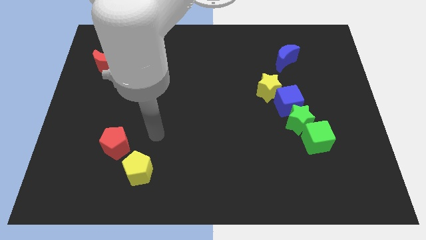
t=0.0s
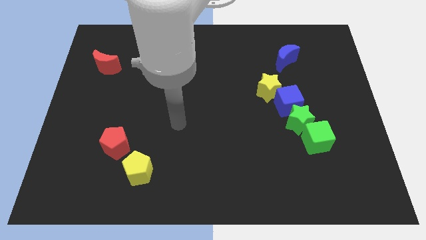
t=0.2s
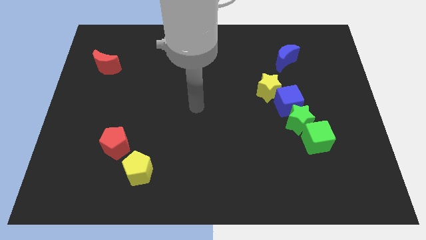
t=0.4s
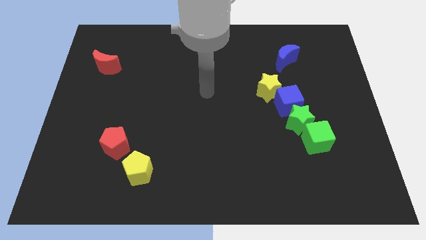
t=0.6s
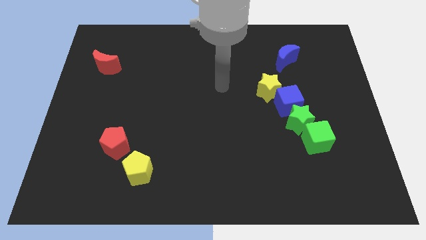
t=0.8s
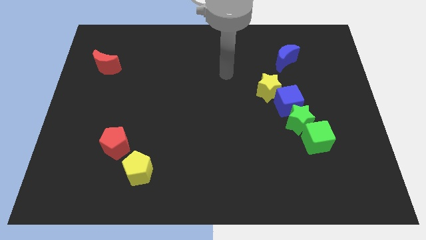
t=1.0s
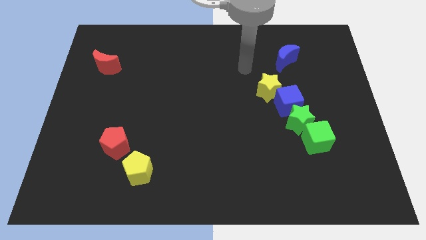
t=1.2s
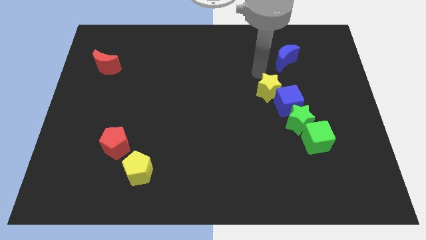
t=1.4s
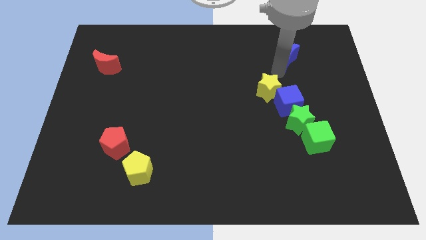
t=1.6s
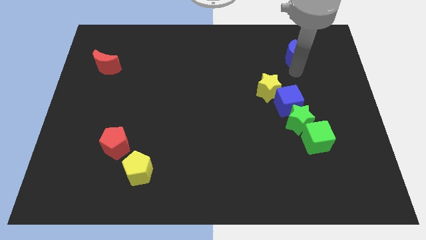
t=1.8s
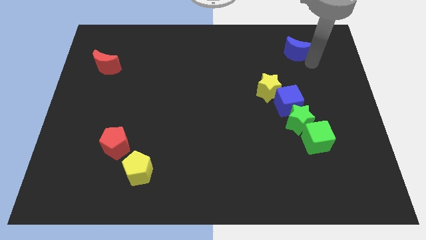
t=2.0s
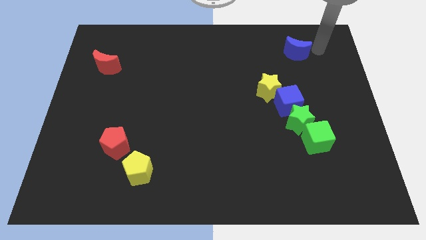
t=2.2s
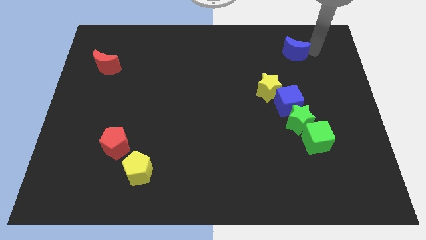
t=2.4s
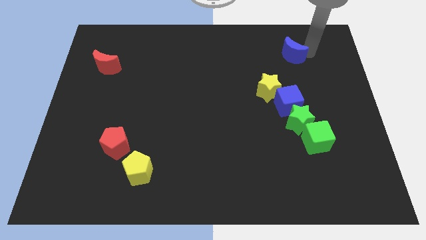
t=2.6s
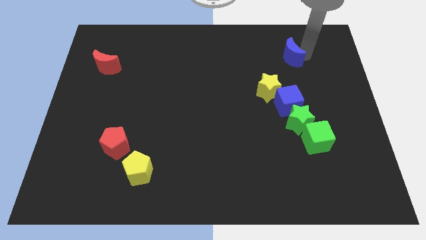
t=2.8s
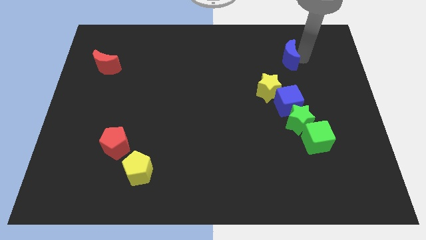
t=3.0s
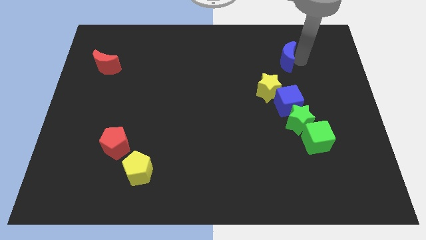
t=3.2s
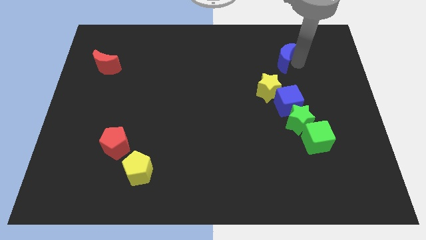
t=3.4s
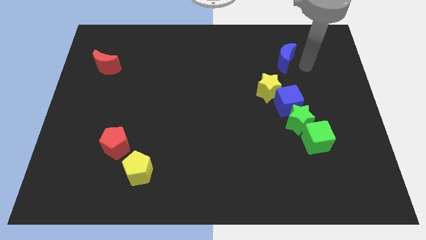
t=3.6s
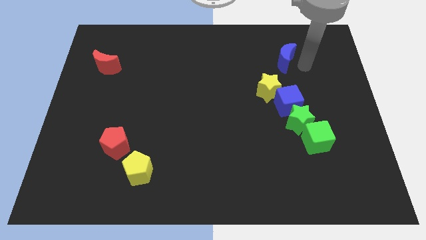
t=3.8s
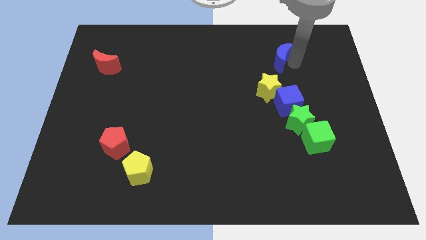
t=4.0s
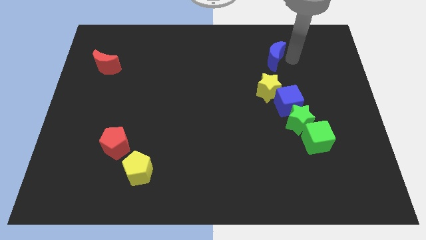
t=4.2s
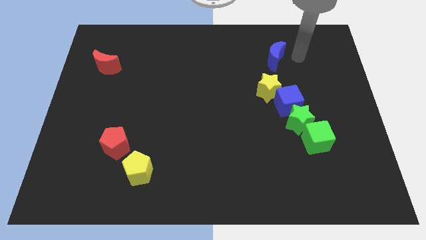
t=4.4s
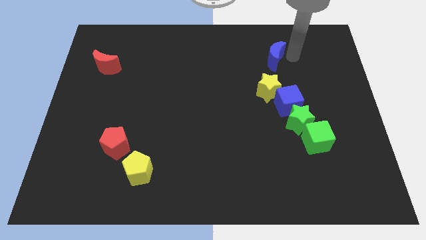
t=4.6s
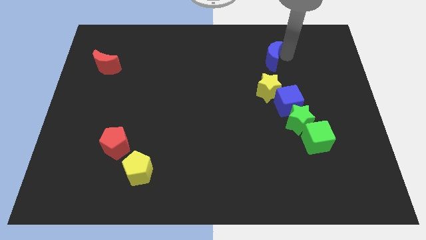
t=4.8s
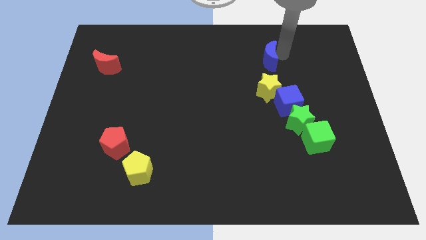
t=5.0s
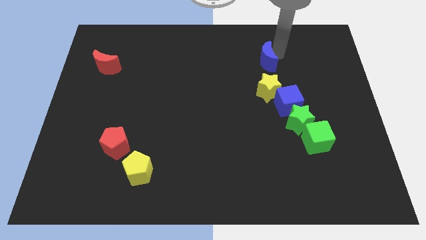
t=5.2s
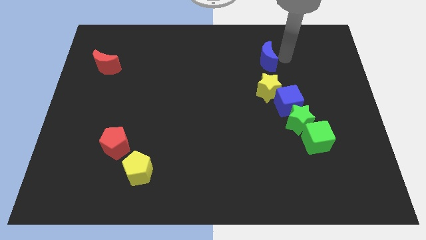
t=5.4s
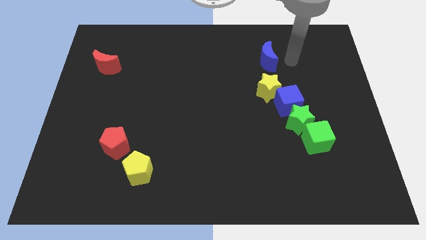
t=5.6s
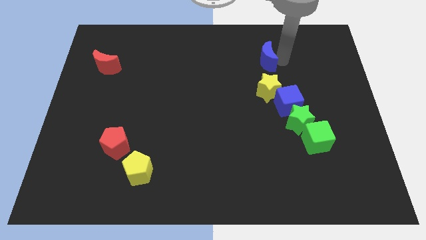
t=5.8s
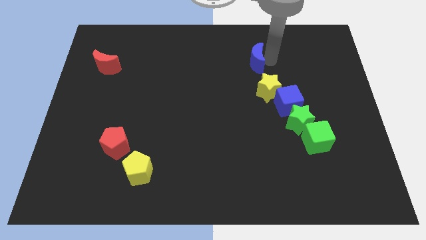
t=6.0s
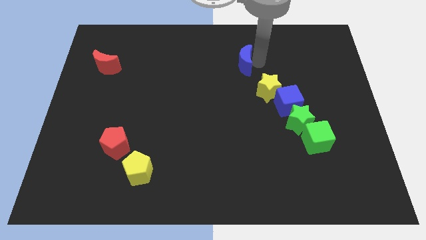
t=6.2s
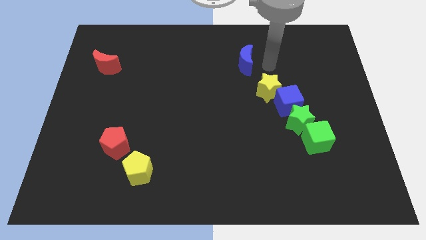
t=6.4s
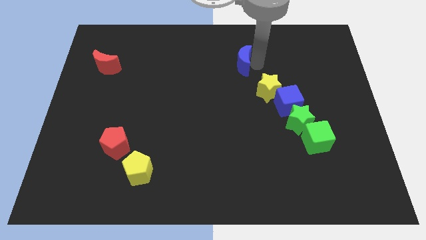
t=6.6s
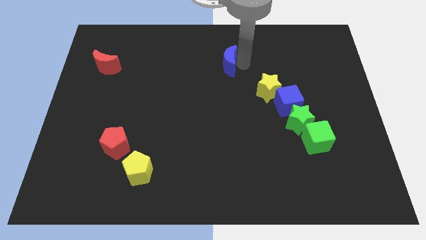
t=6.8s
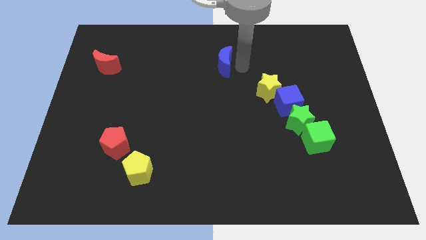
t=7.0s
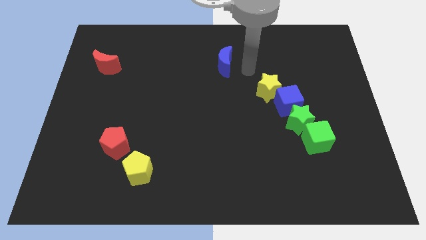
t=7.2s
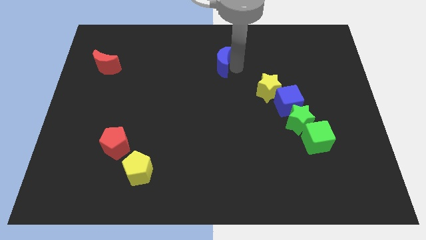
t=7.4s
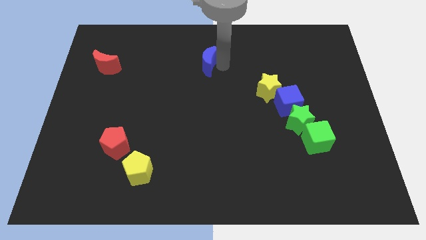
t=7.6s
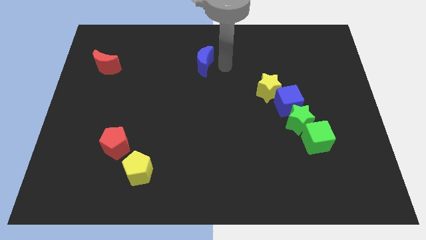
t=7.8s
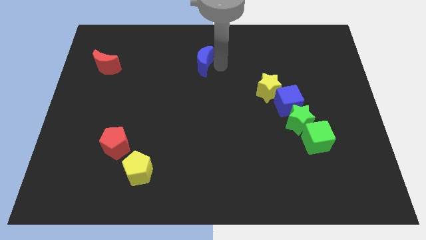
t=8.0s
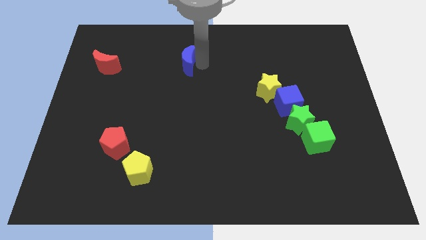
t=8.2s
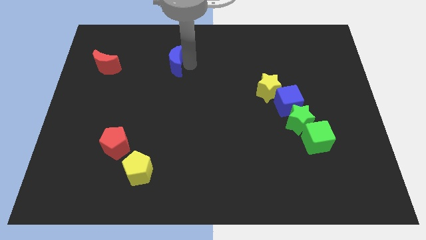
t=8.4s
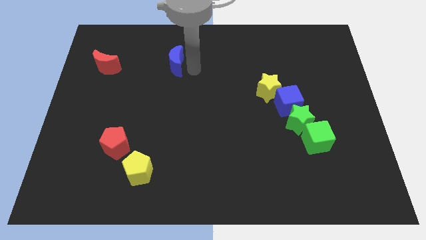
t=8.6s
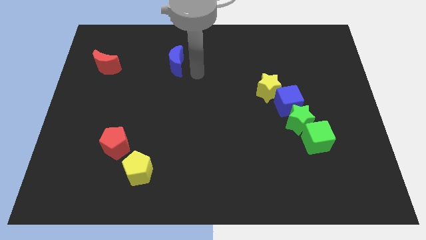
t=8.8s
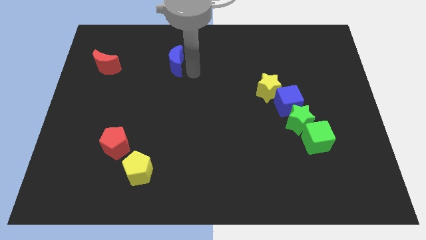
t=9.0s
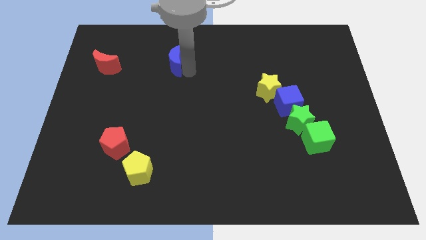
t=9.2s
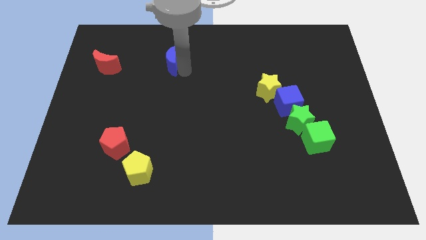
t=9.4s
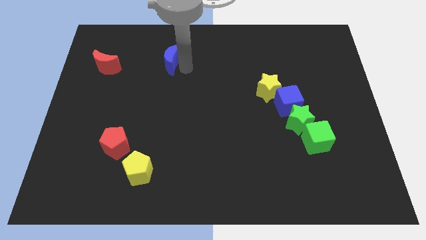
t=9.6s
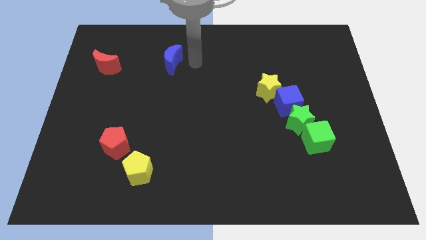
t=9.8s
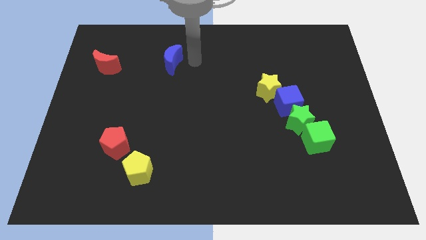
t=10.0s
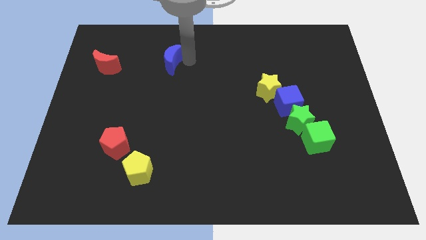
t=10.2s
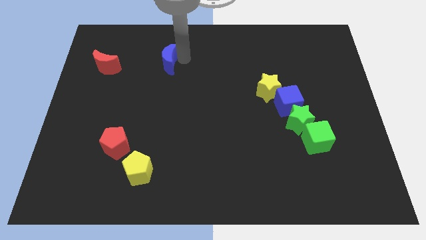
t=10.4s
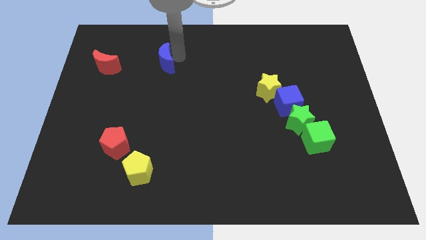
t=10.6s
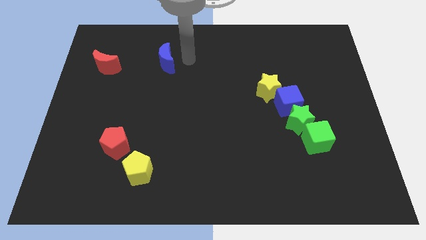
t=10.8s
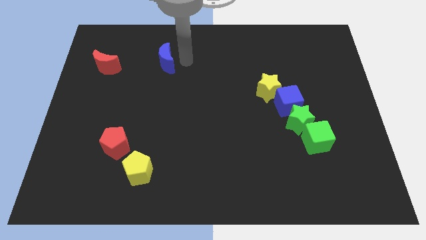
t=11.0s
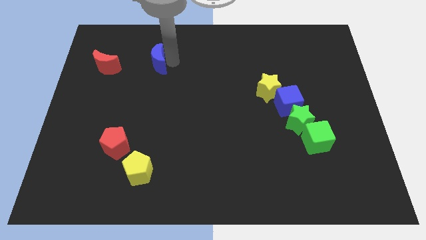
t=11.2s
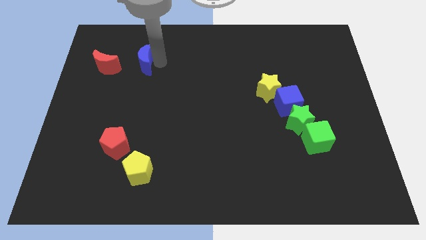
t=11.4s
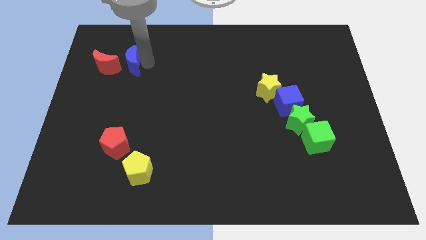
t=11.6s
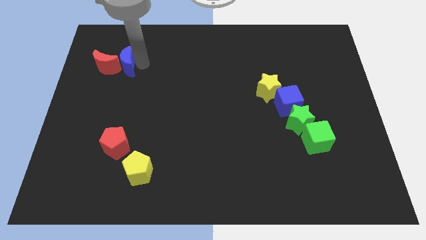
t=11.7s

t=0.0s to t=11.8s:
slide the blue moon close to the red moon

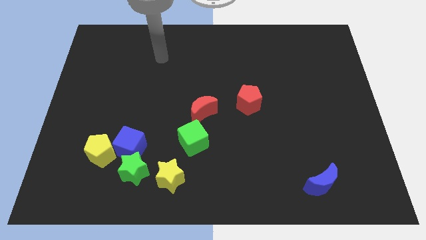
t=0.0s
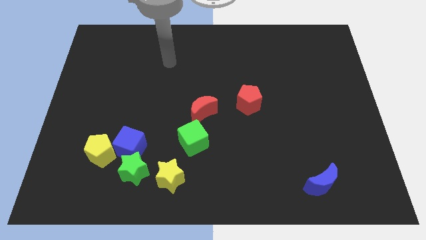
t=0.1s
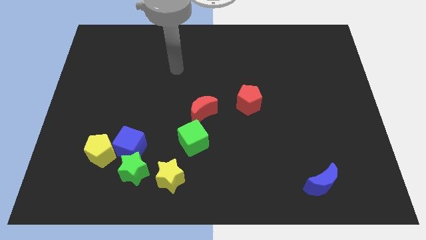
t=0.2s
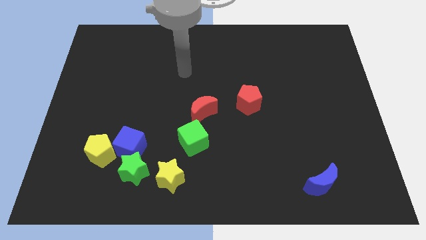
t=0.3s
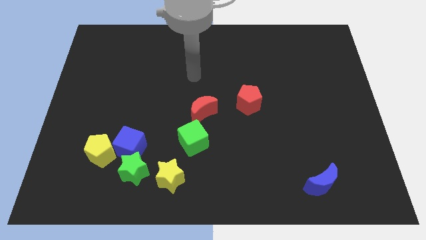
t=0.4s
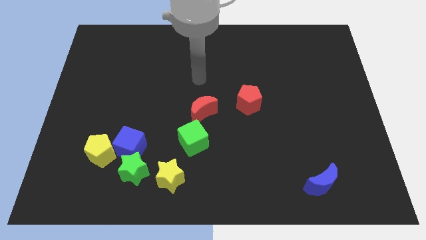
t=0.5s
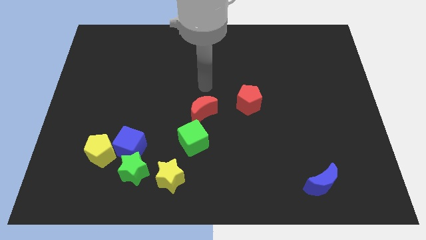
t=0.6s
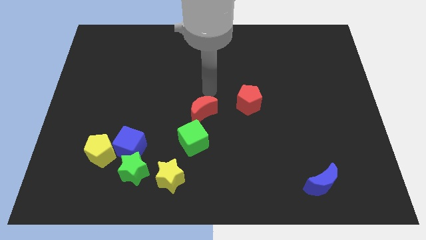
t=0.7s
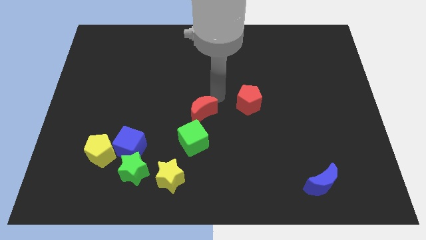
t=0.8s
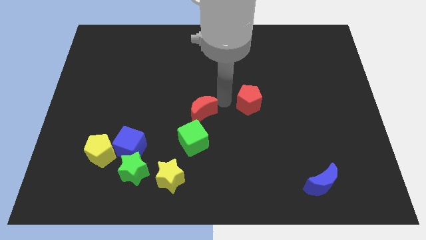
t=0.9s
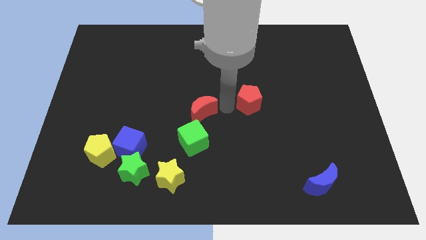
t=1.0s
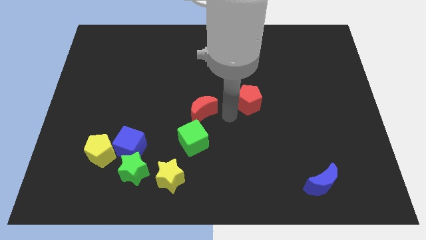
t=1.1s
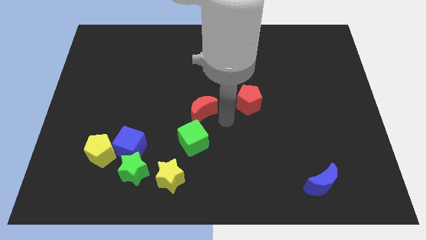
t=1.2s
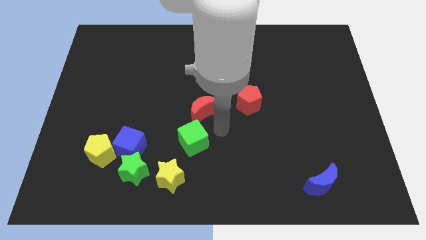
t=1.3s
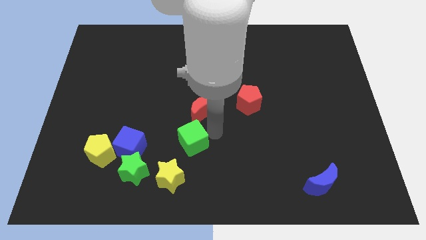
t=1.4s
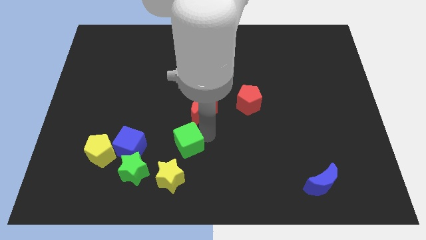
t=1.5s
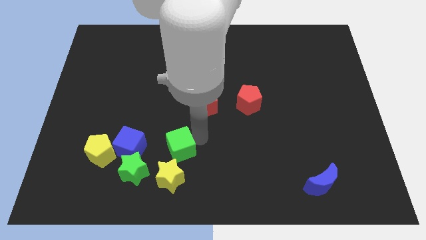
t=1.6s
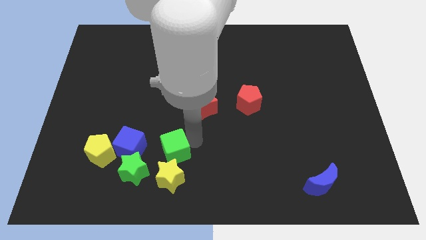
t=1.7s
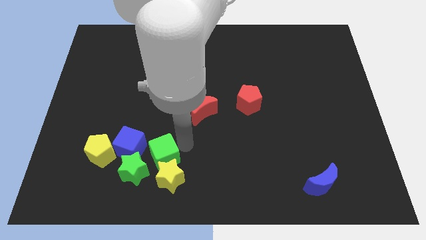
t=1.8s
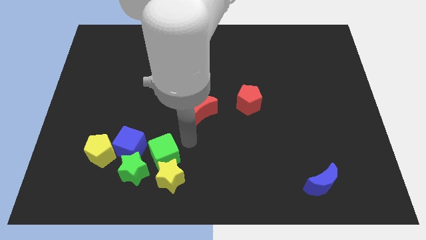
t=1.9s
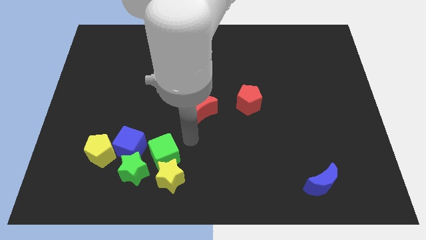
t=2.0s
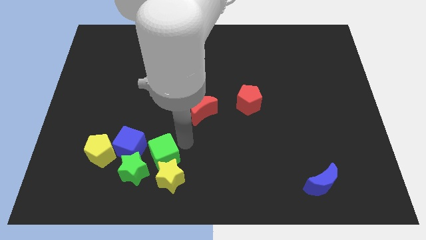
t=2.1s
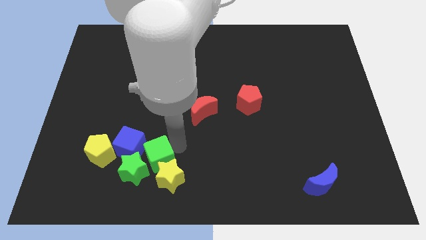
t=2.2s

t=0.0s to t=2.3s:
push the green cube to the green star
